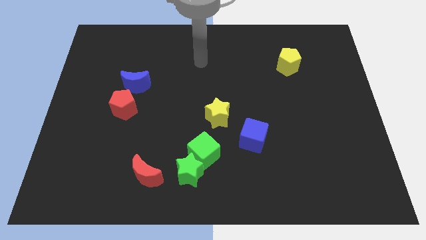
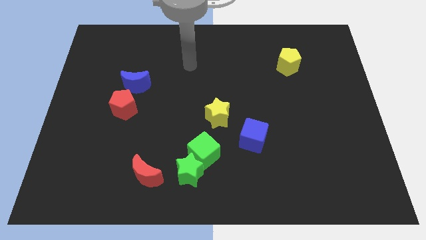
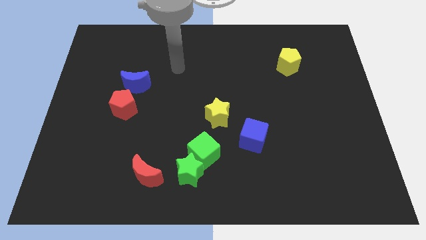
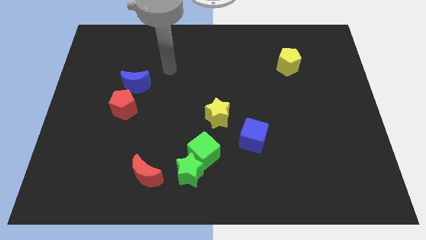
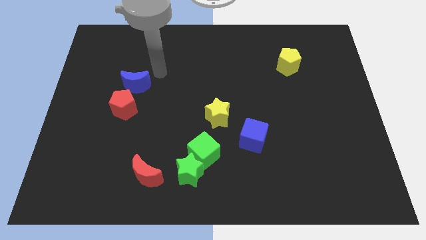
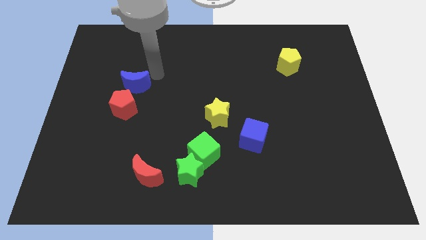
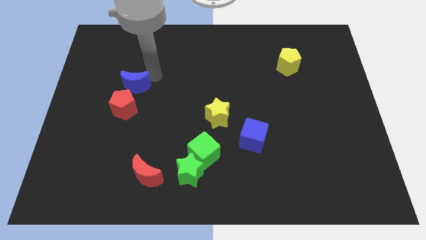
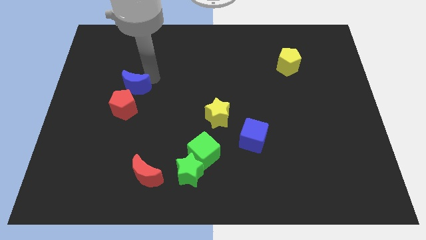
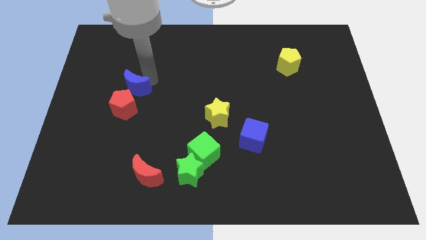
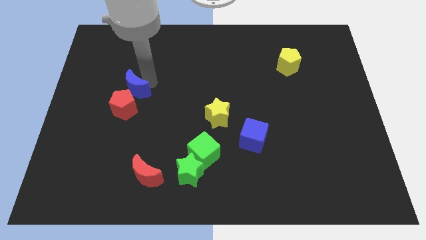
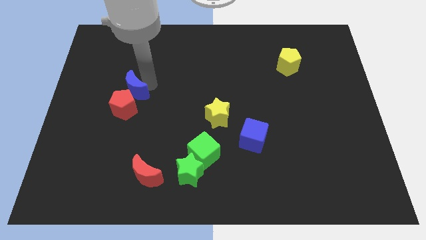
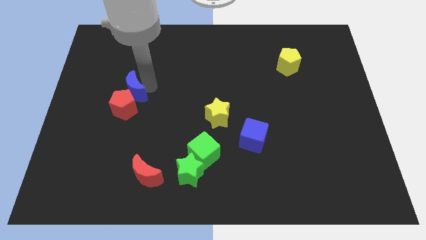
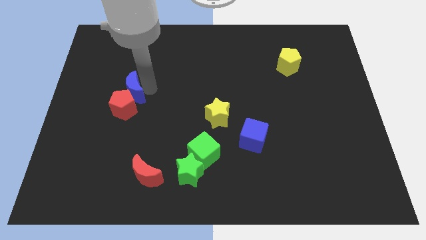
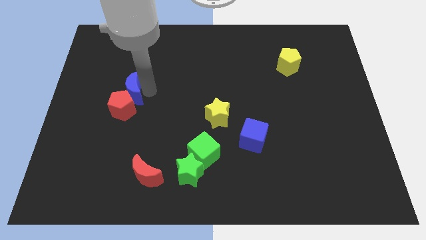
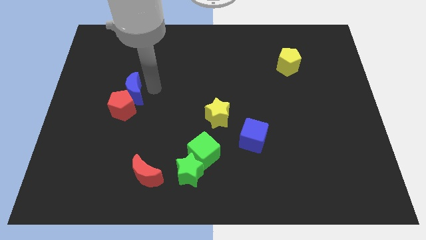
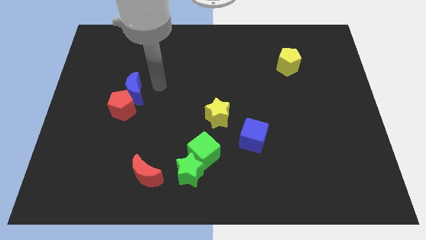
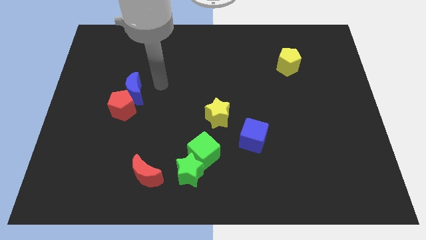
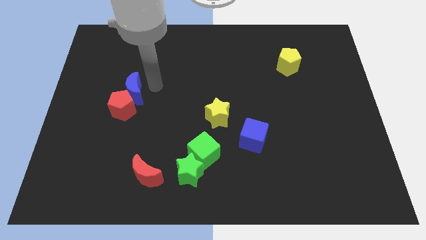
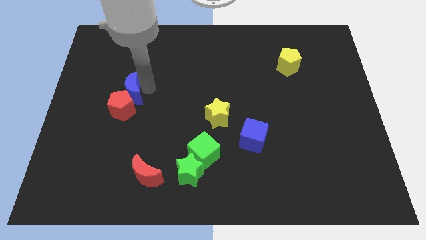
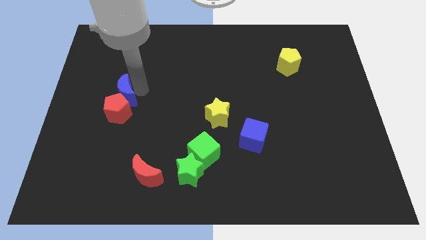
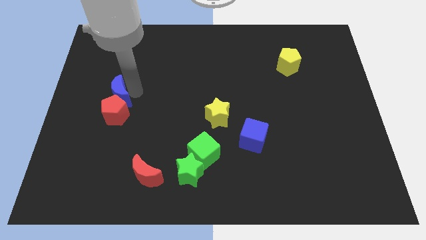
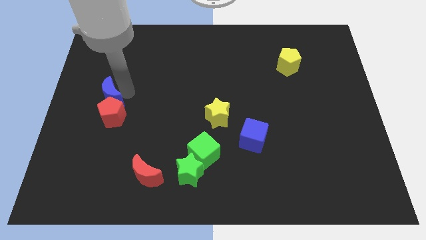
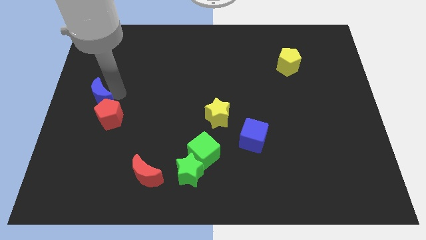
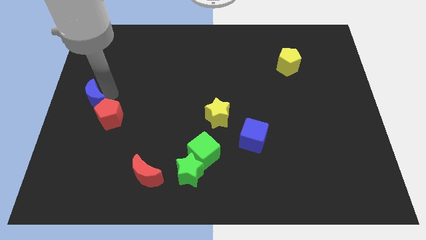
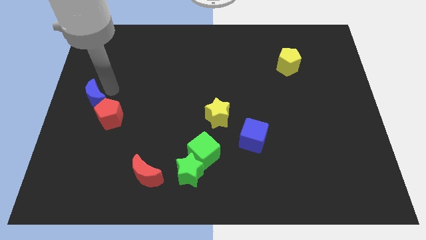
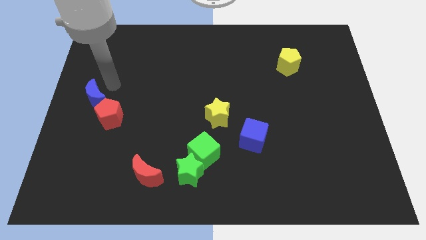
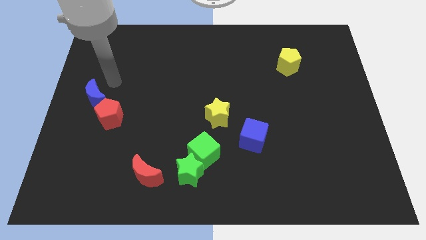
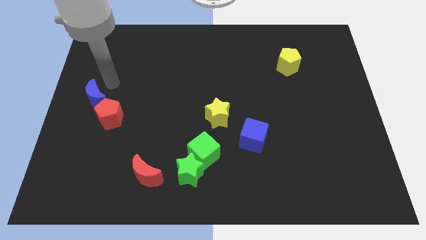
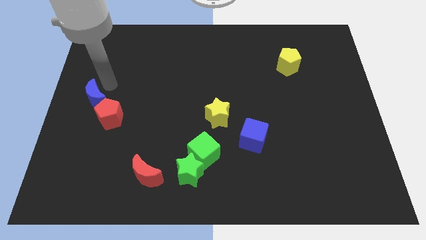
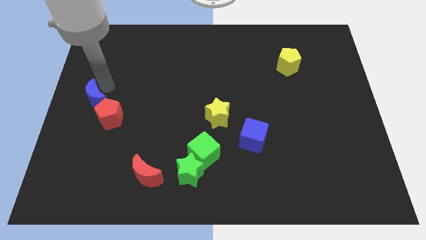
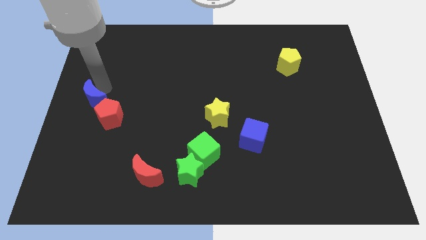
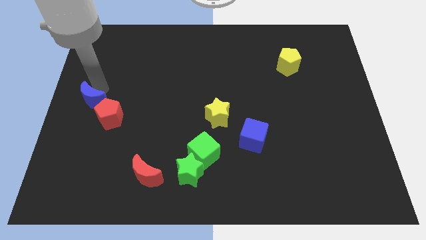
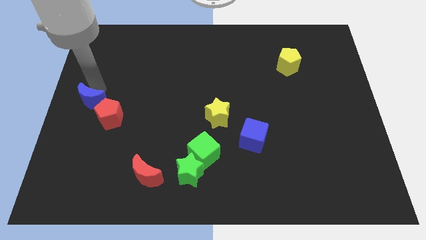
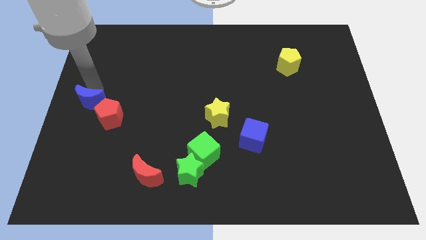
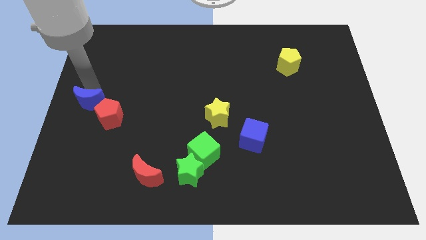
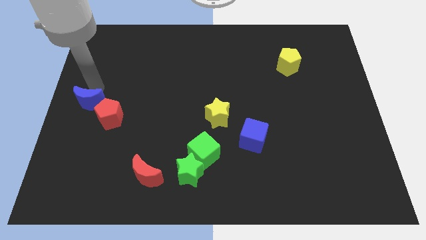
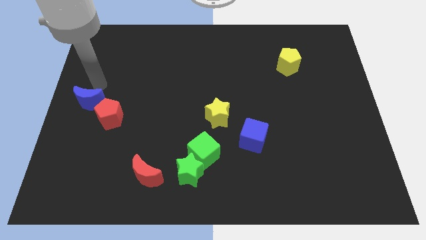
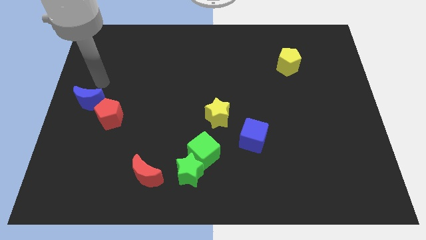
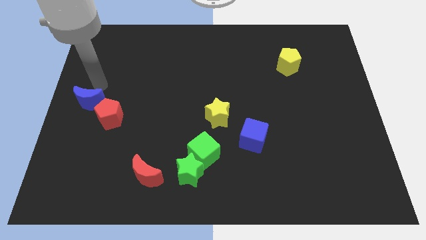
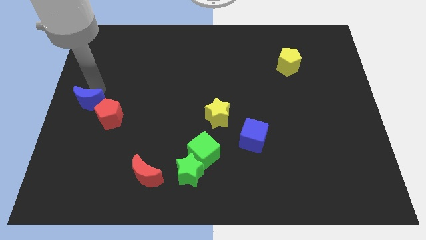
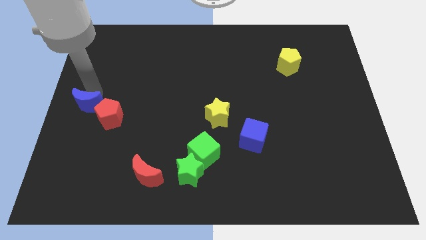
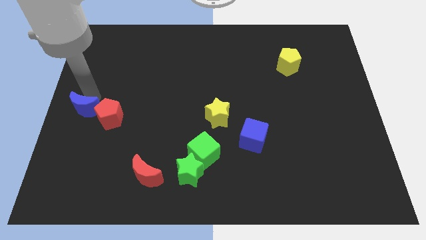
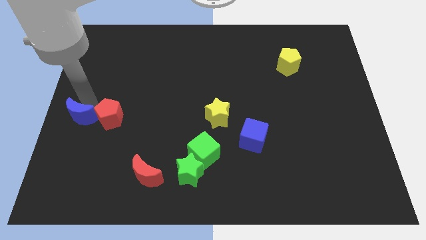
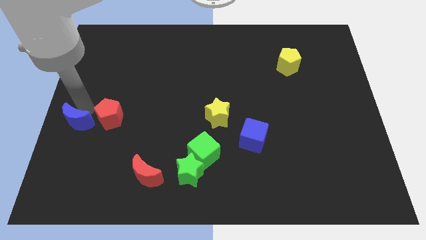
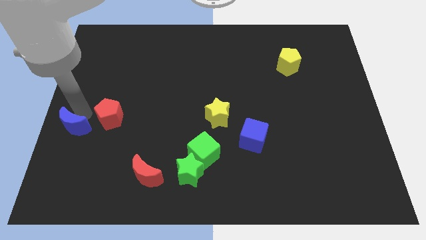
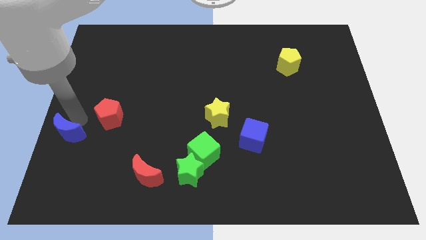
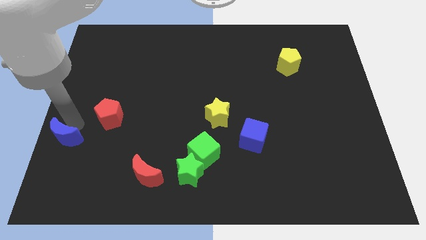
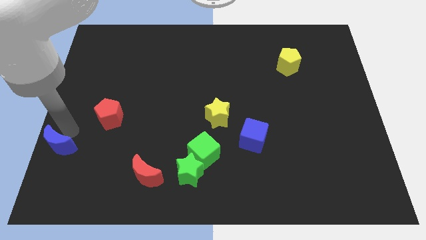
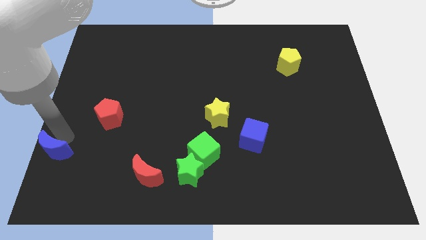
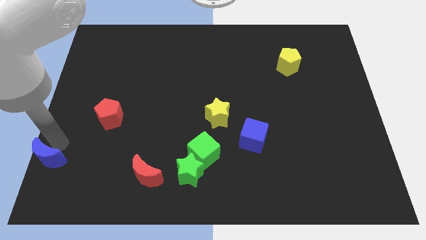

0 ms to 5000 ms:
push the blue moon to the bottom left of the board

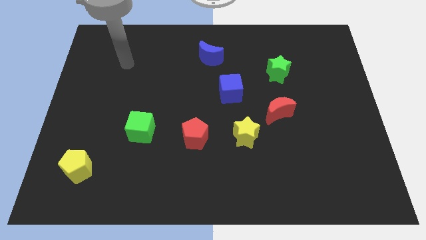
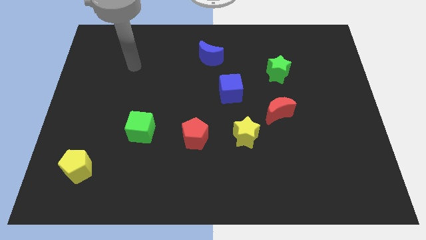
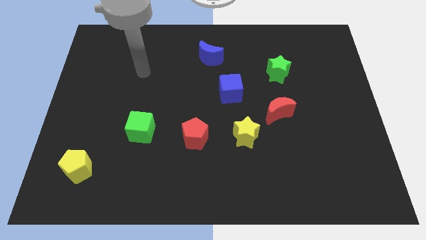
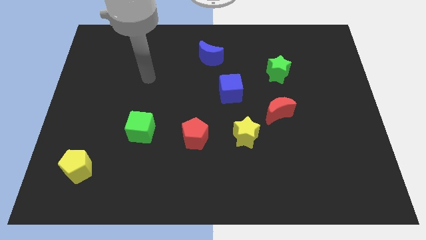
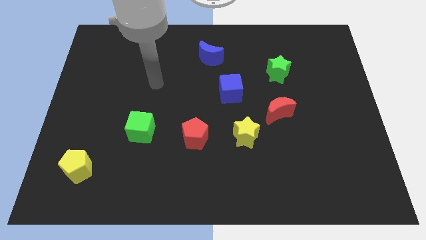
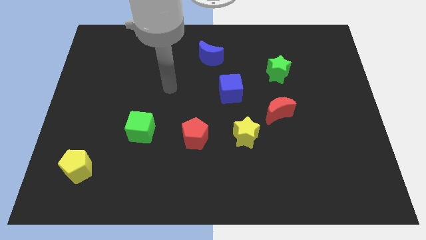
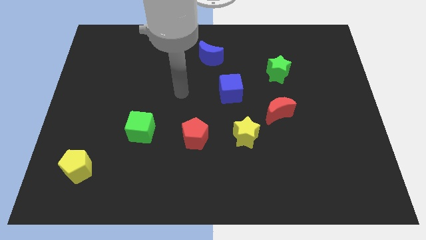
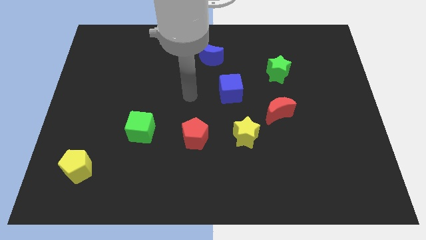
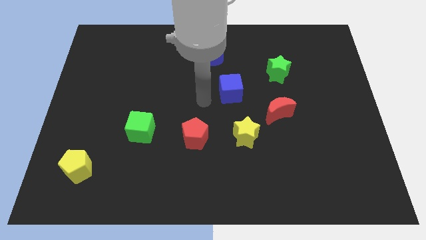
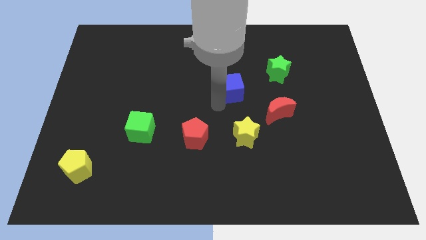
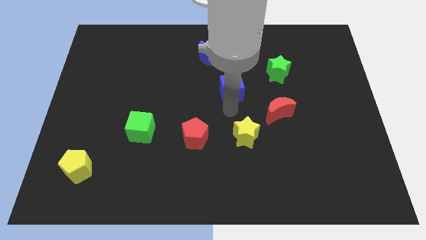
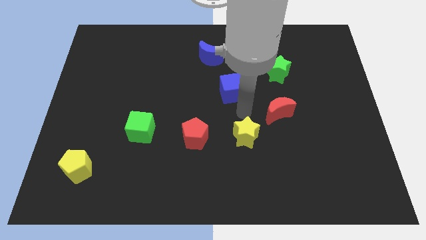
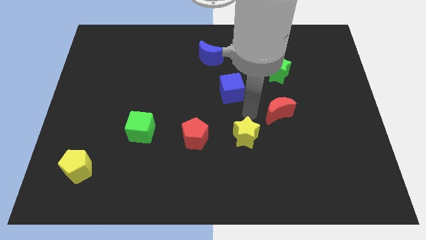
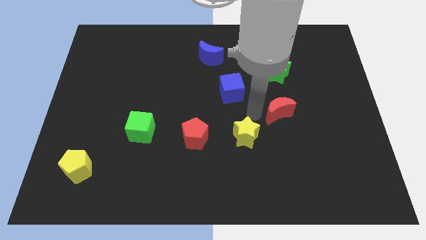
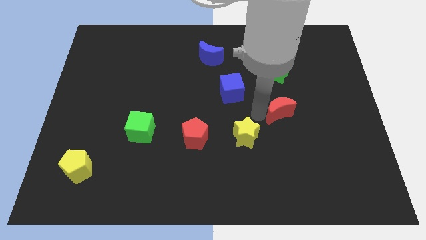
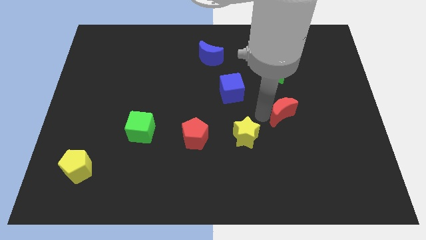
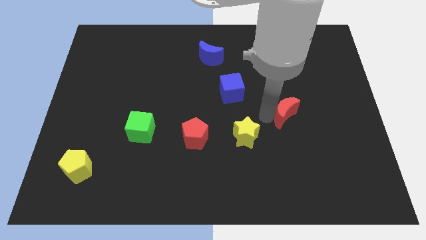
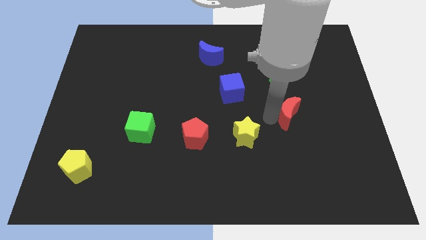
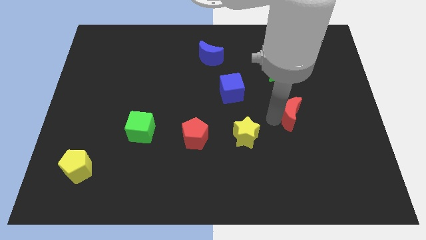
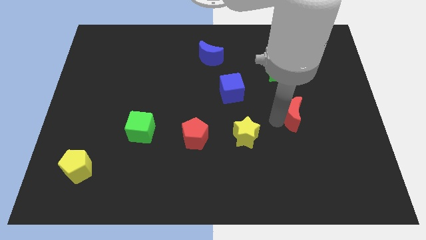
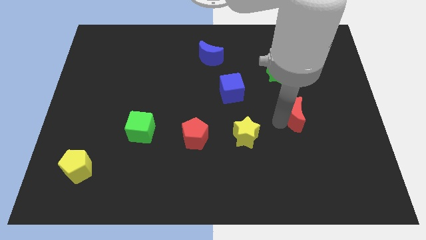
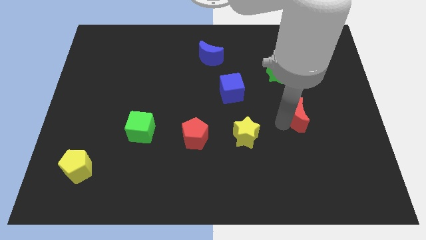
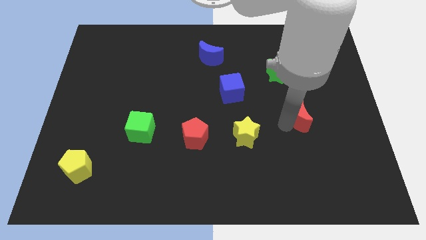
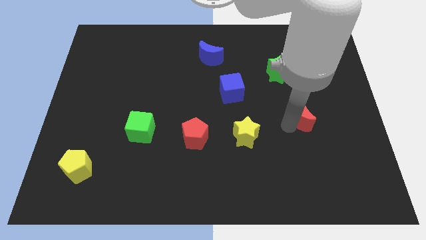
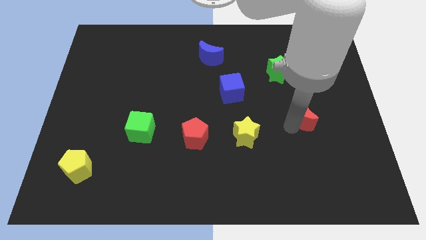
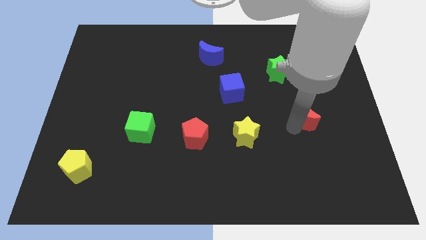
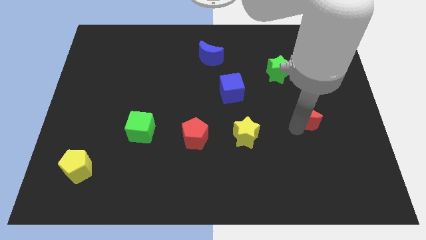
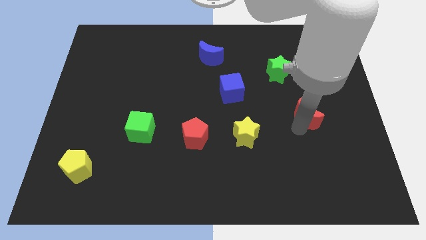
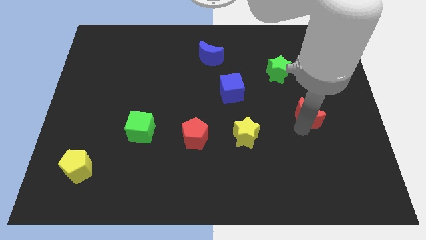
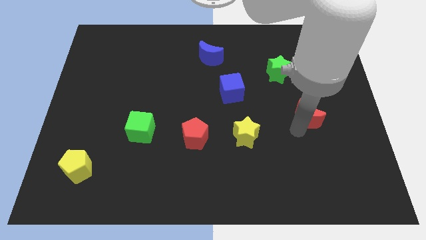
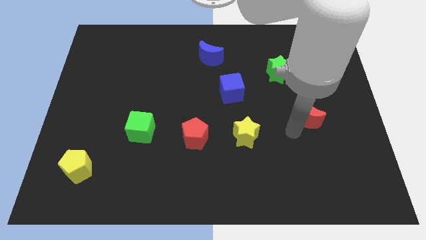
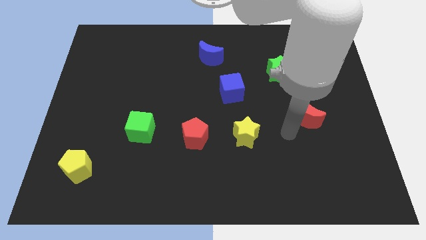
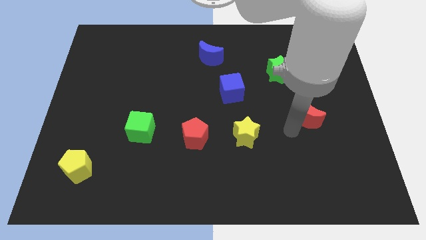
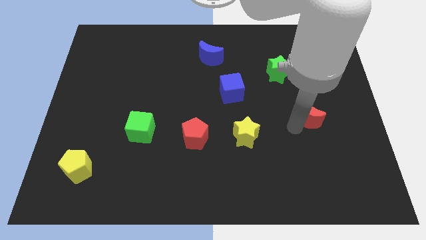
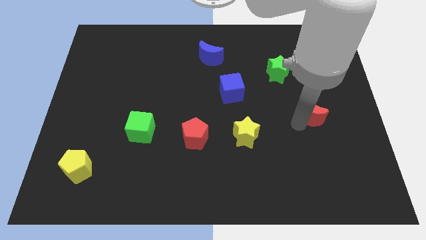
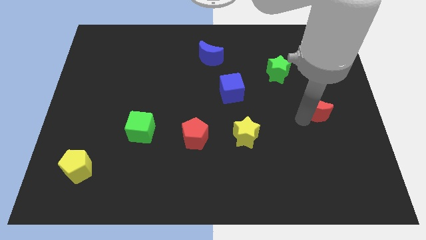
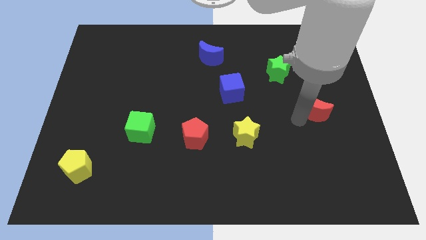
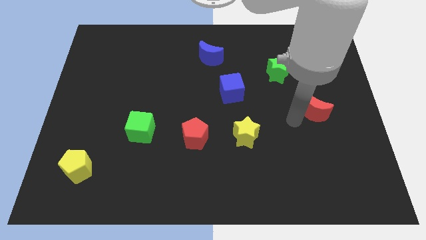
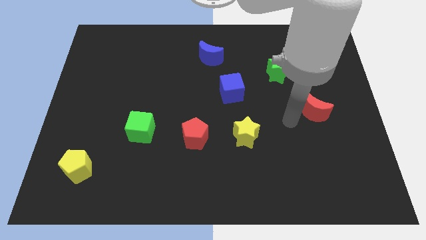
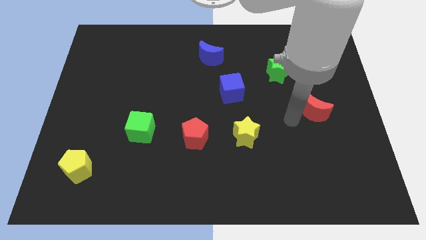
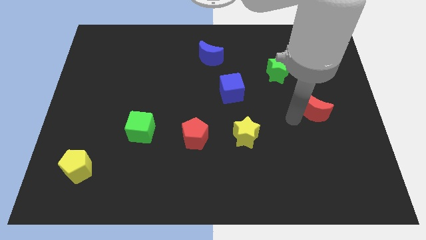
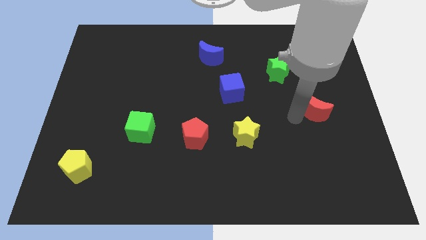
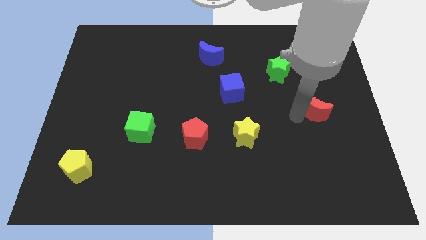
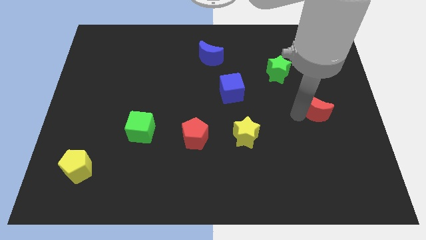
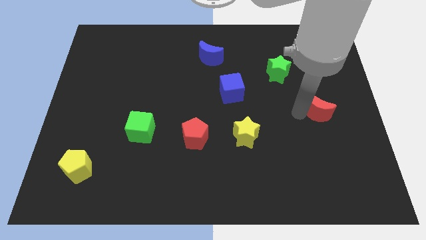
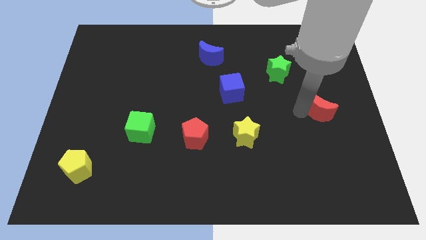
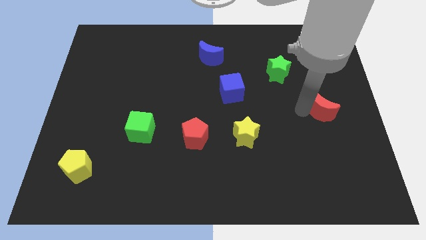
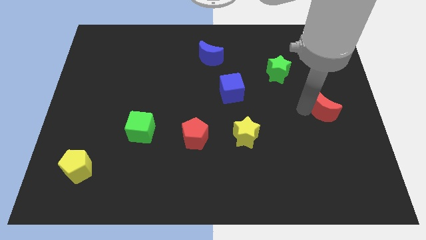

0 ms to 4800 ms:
push the red moon to the center right
